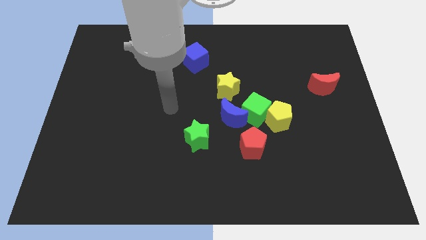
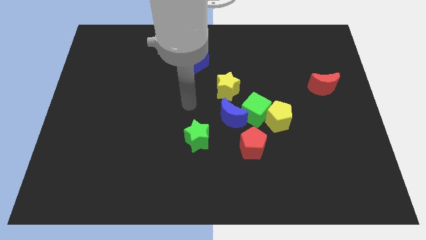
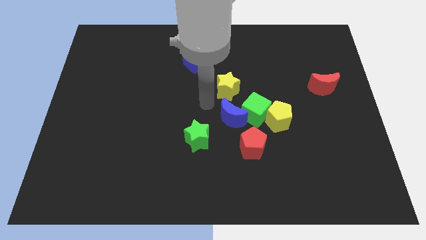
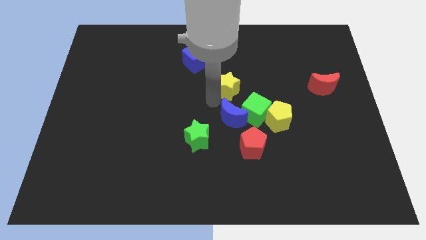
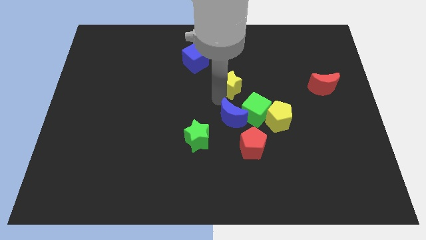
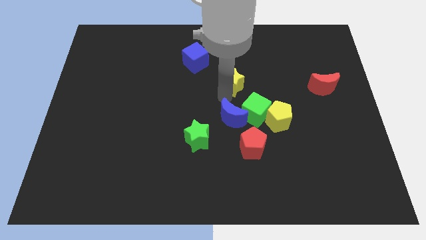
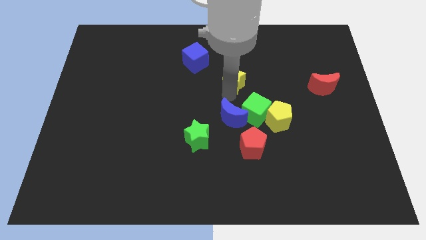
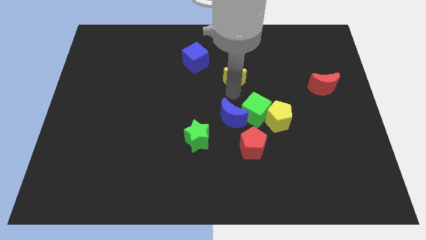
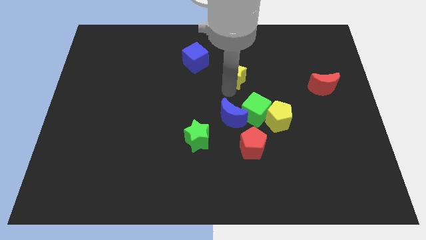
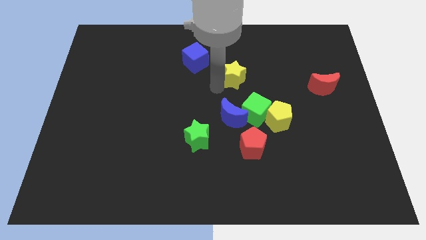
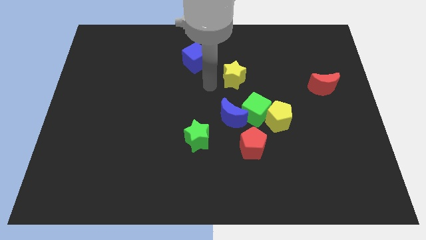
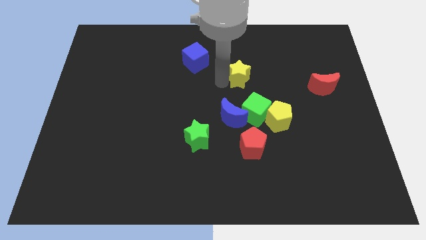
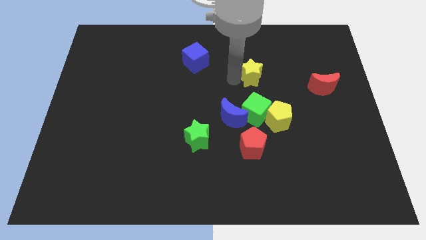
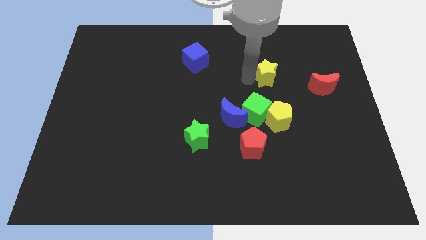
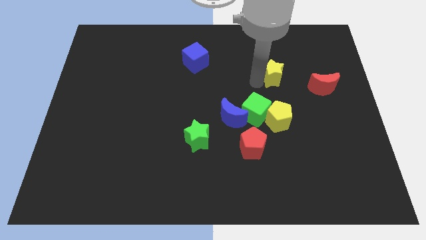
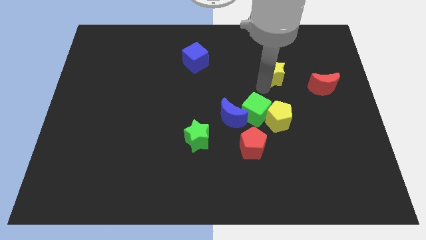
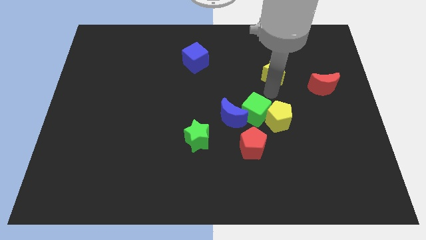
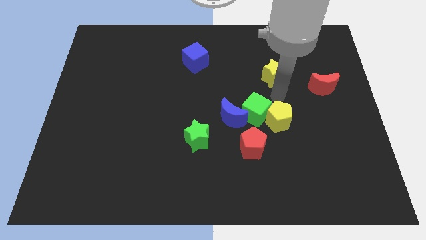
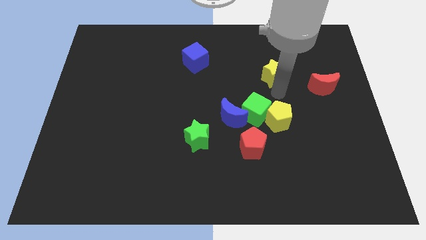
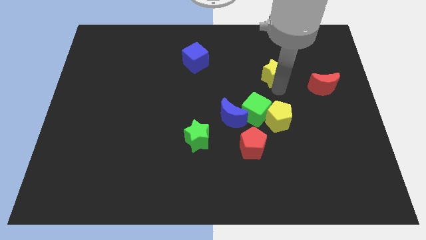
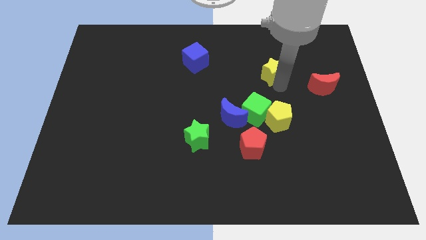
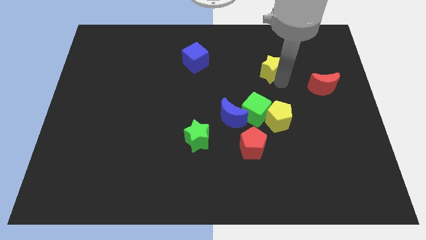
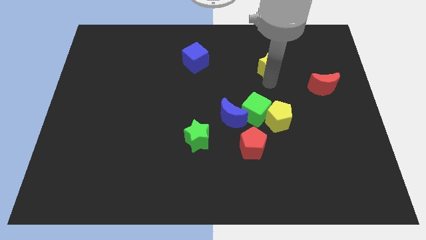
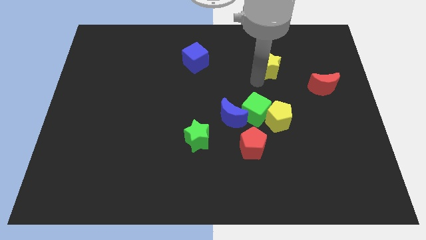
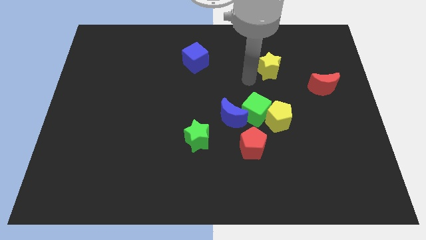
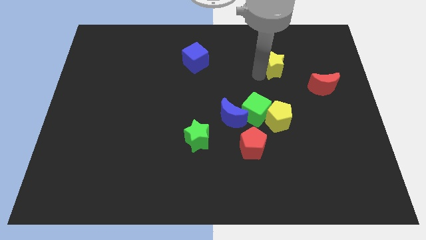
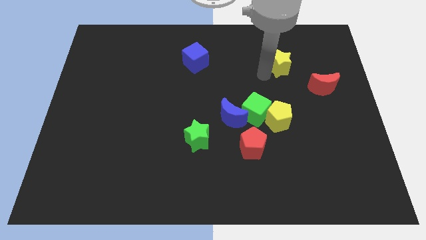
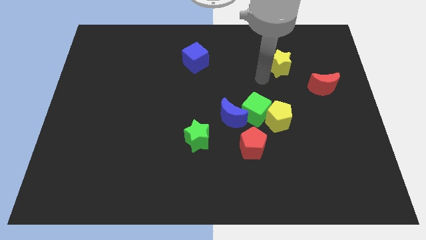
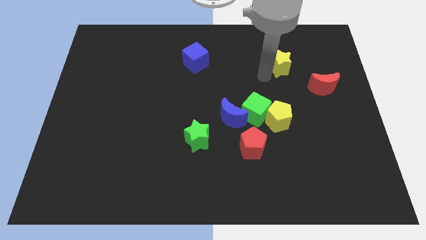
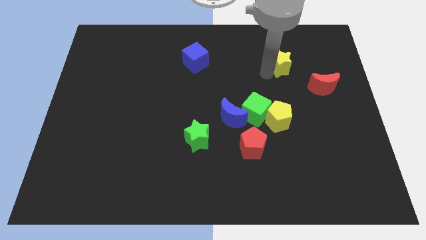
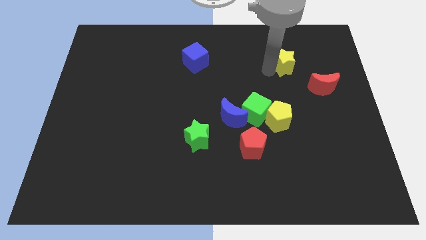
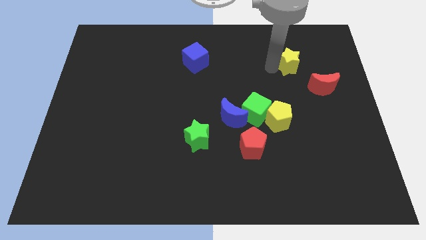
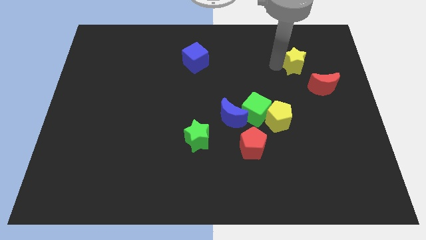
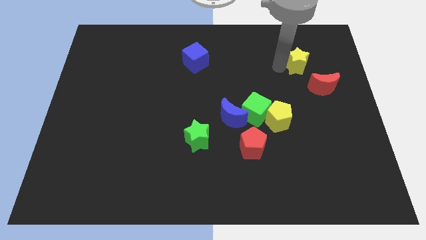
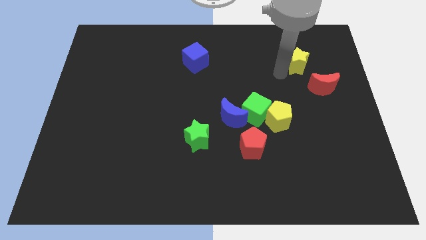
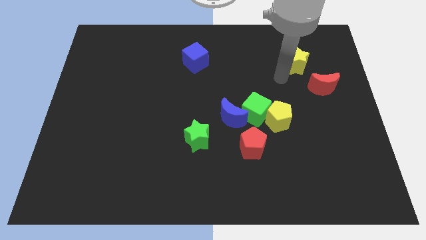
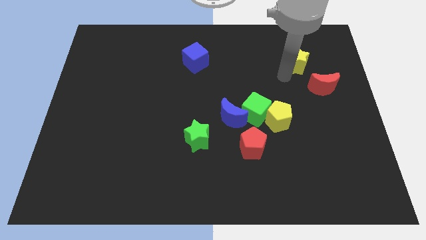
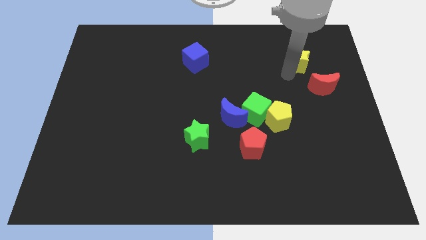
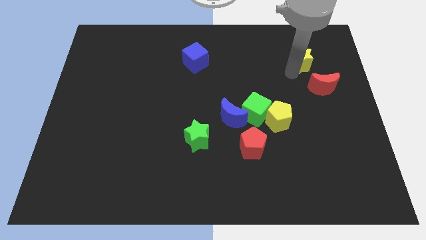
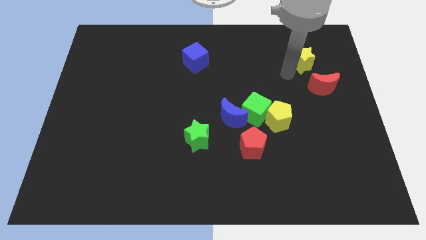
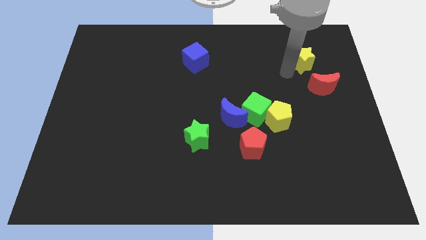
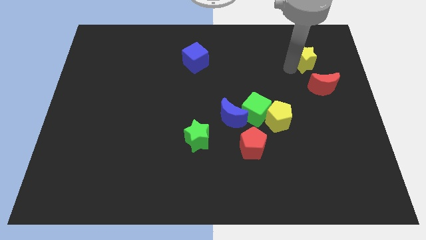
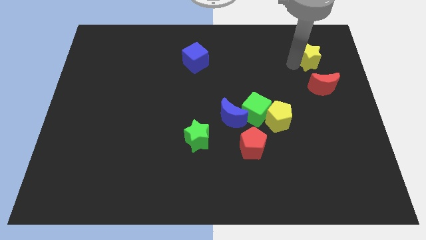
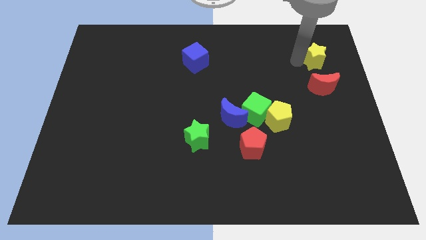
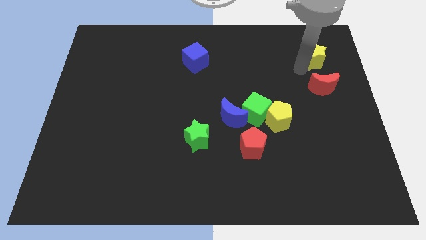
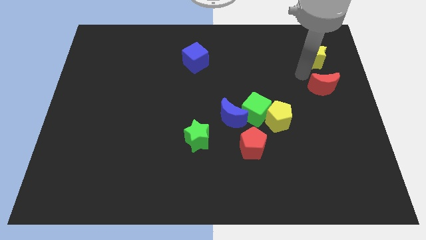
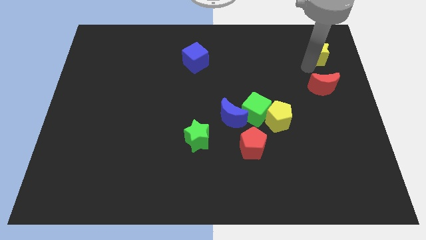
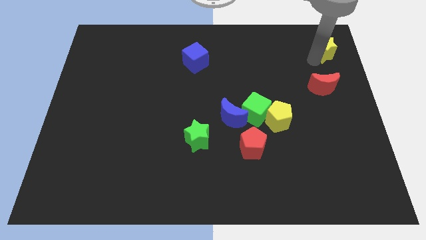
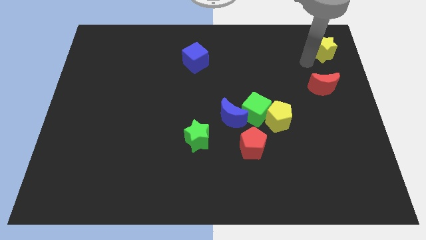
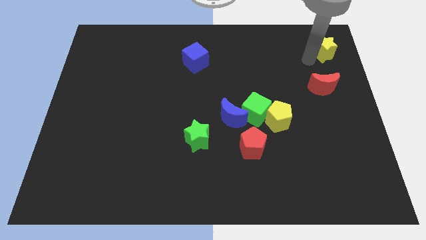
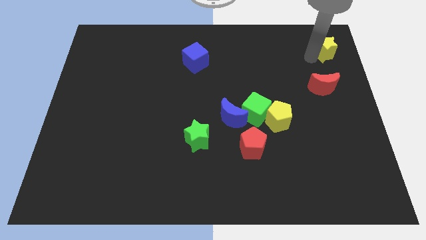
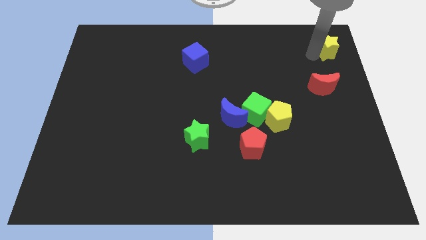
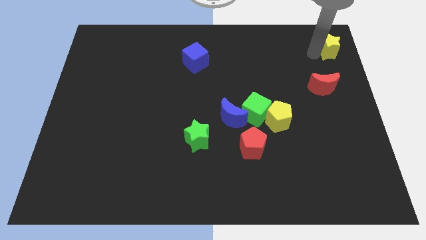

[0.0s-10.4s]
slide the yellow star to the top right corner

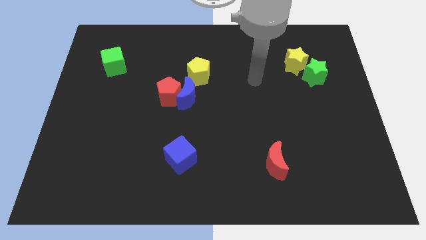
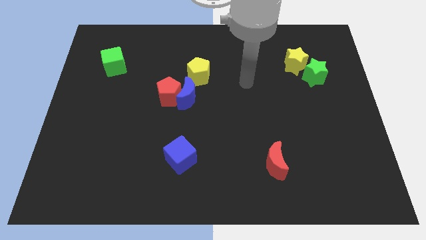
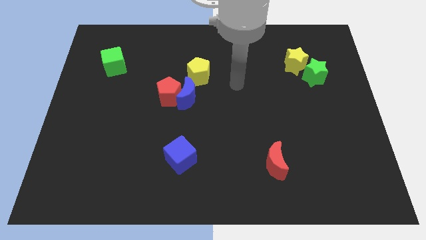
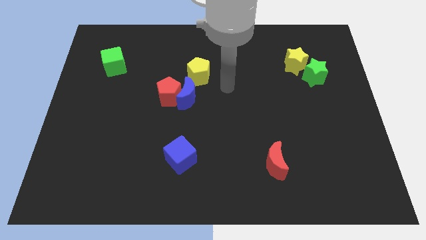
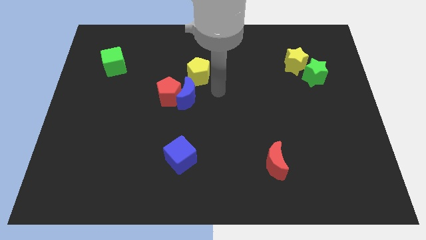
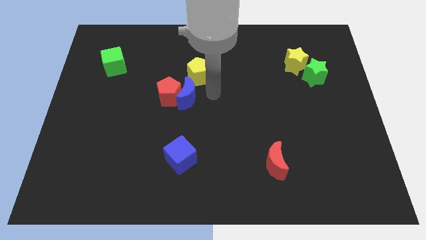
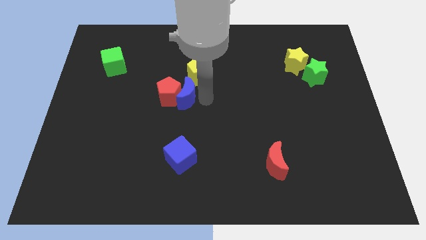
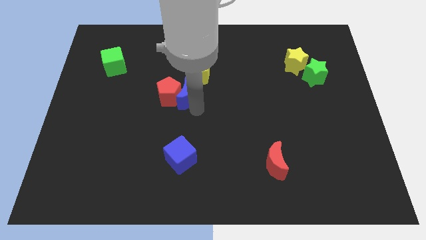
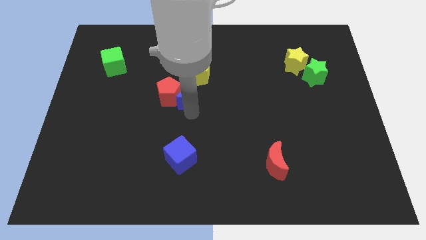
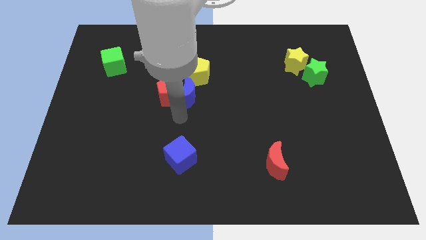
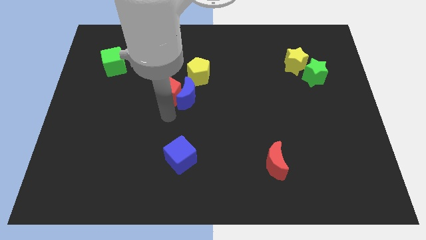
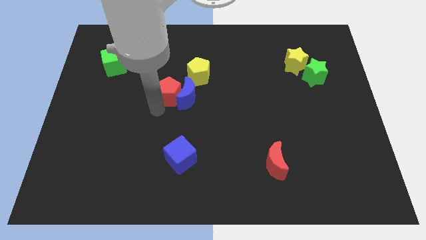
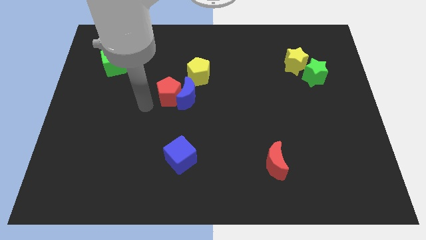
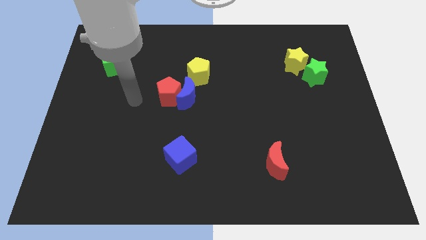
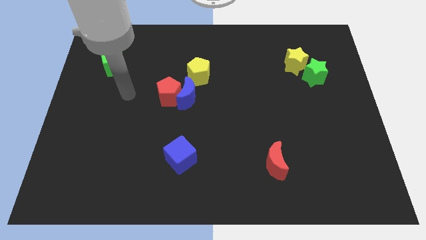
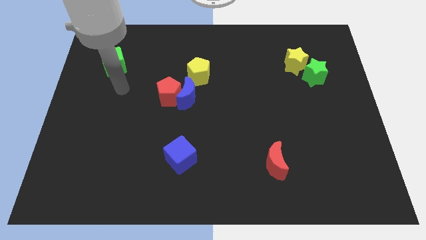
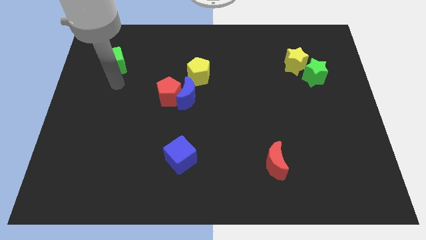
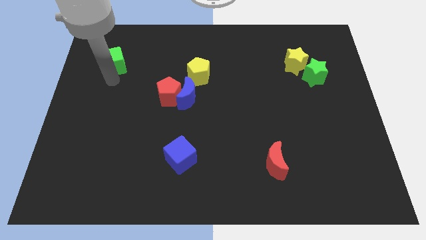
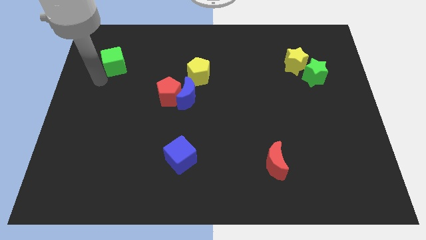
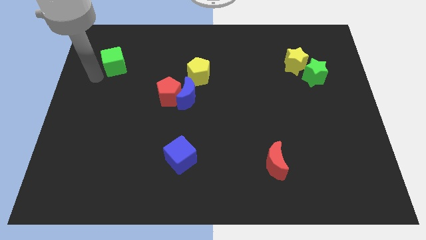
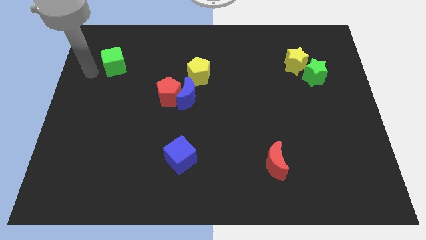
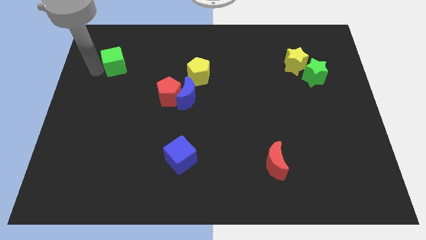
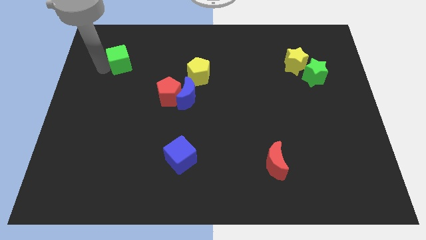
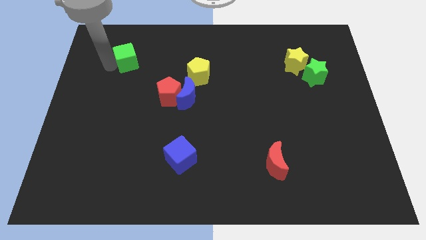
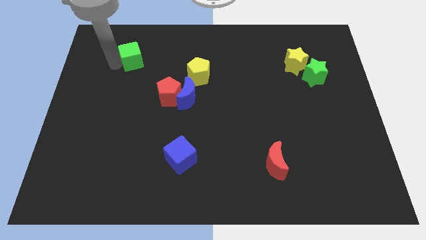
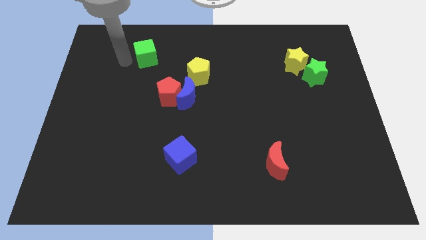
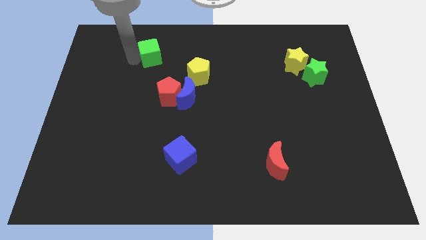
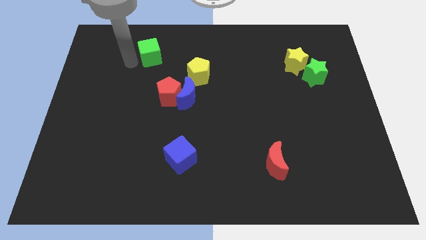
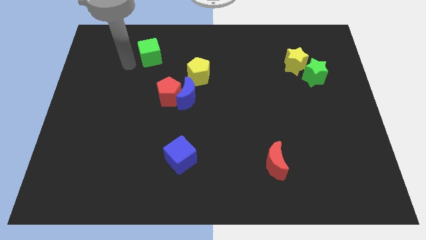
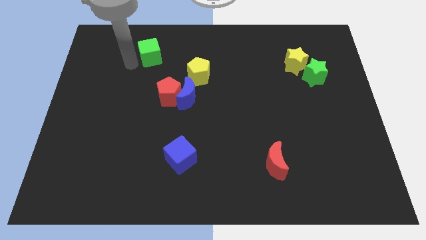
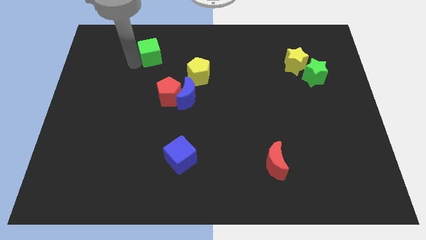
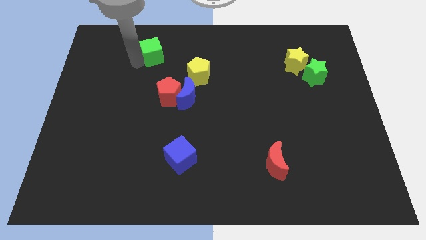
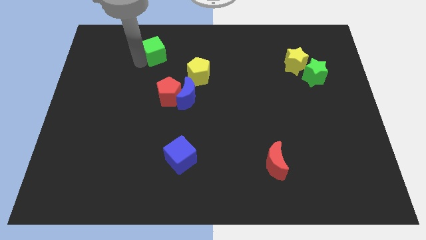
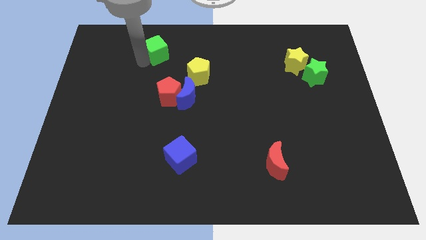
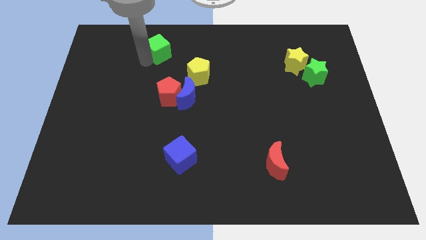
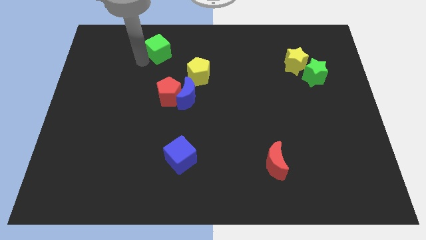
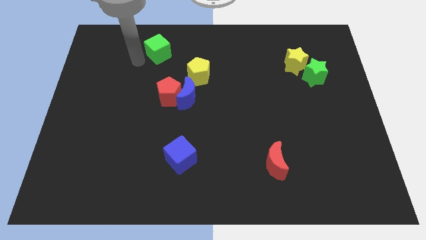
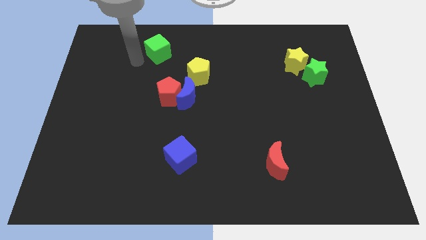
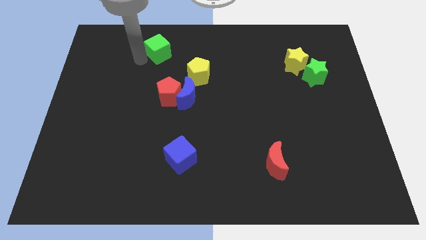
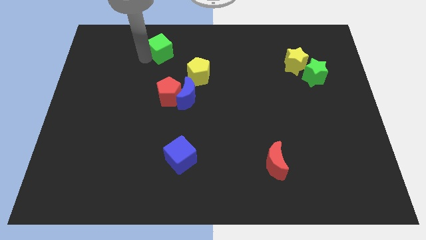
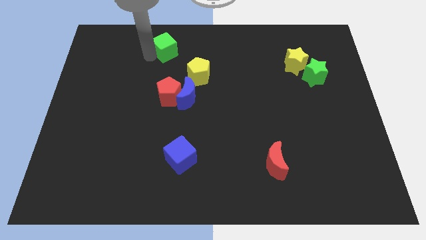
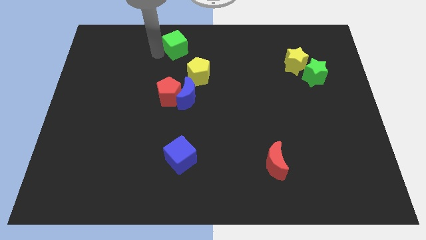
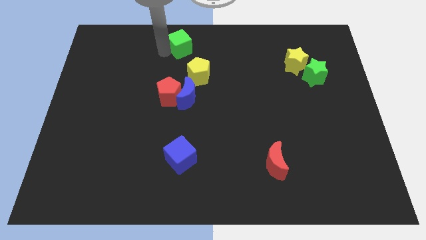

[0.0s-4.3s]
push the green cube to the towards your base
